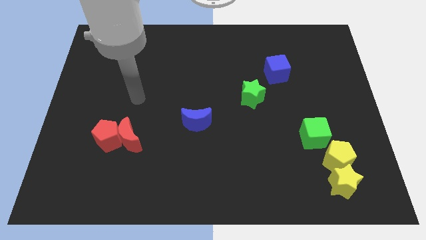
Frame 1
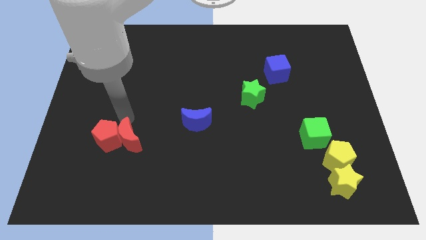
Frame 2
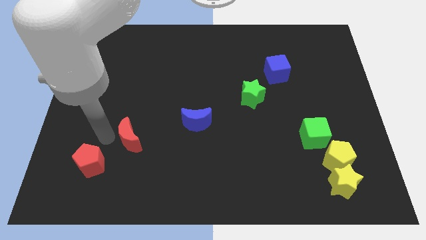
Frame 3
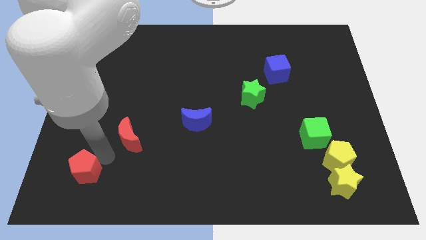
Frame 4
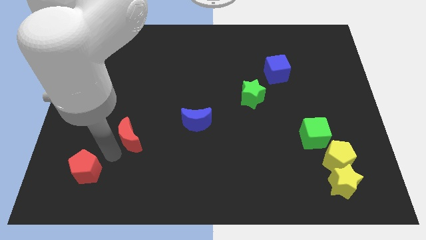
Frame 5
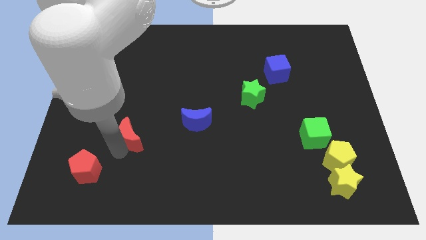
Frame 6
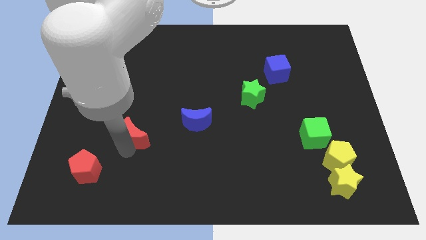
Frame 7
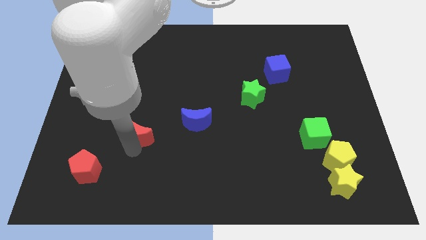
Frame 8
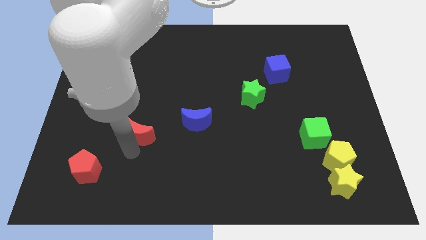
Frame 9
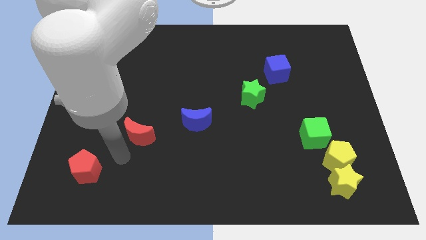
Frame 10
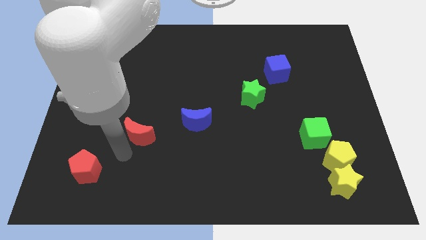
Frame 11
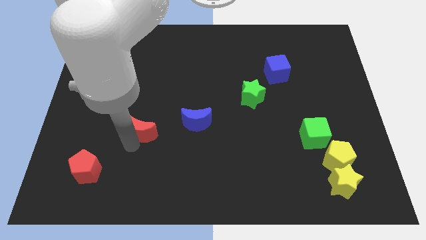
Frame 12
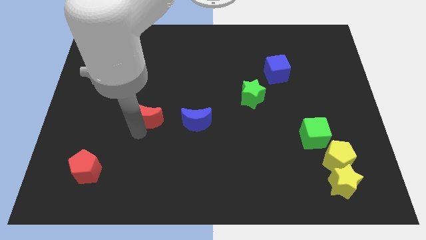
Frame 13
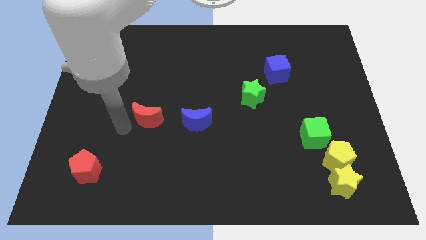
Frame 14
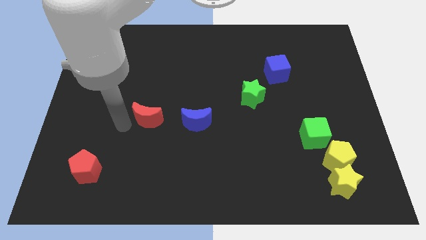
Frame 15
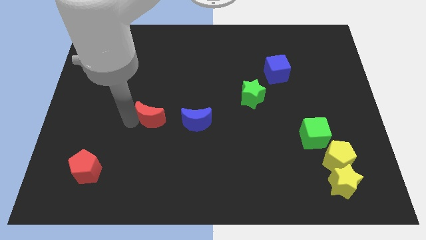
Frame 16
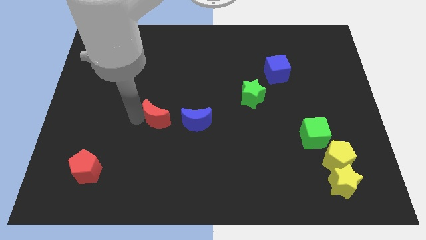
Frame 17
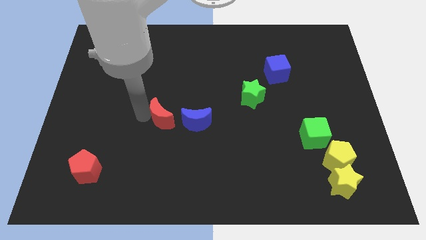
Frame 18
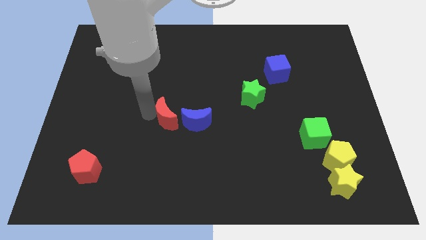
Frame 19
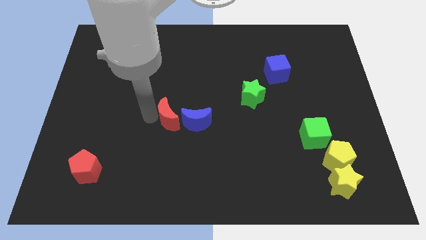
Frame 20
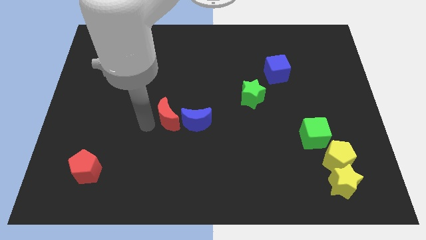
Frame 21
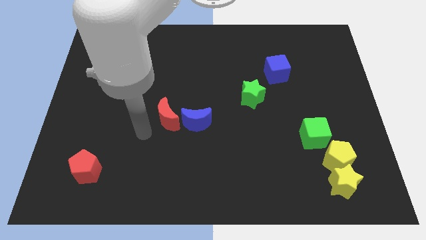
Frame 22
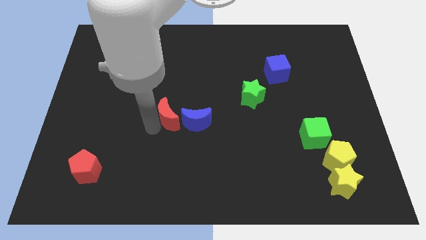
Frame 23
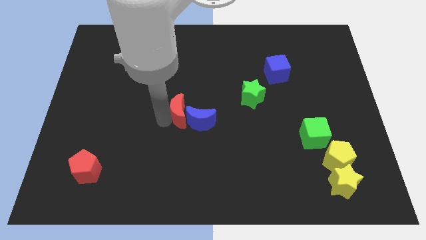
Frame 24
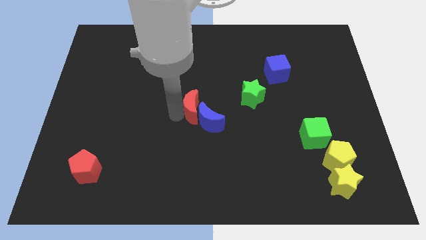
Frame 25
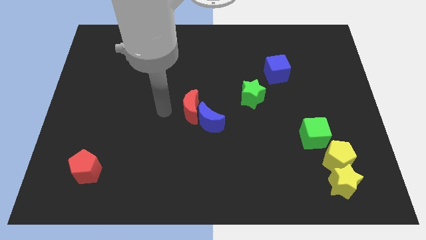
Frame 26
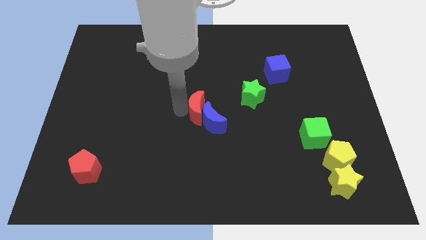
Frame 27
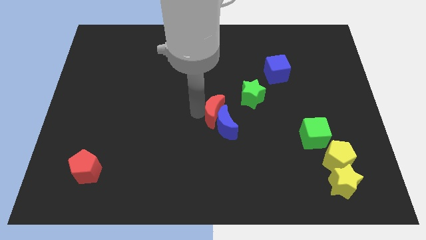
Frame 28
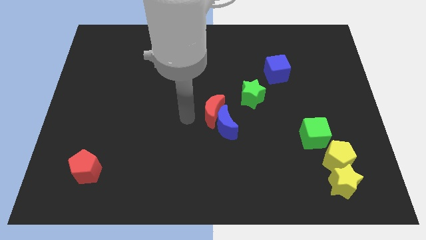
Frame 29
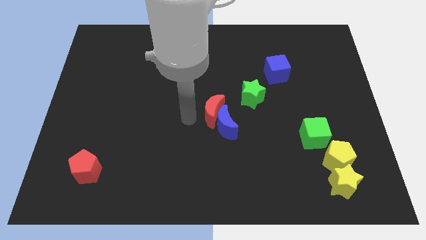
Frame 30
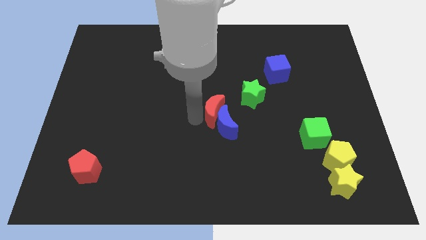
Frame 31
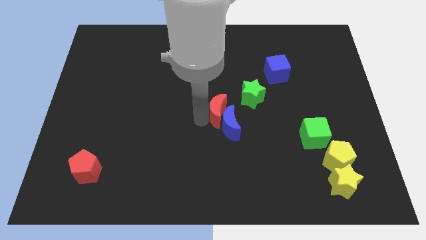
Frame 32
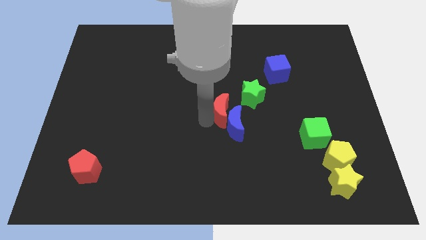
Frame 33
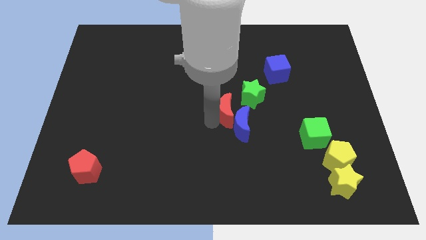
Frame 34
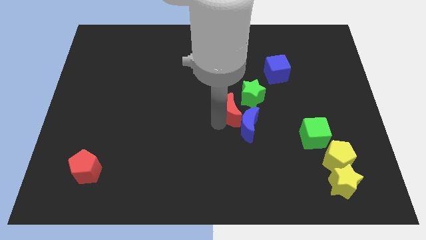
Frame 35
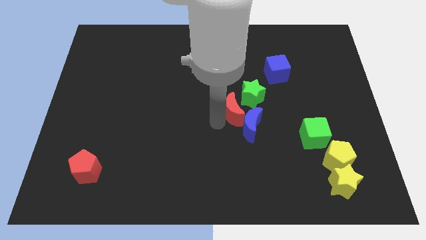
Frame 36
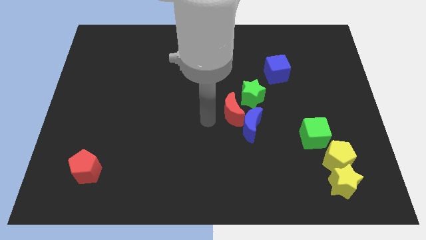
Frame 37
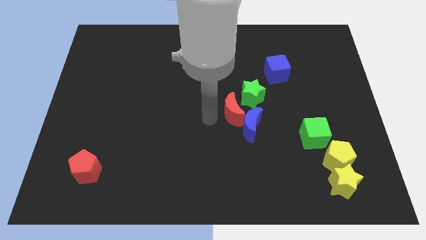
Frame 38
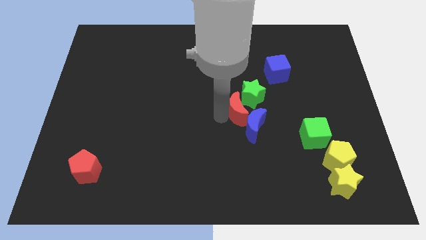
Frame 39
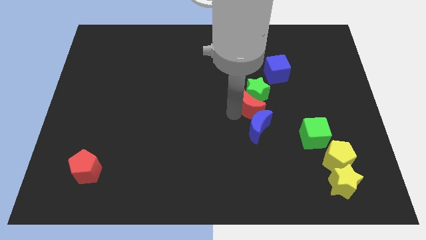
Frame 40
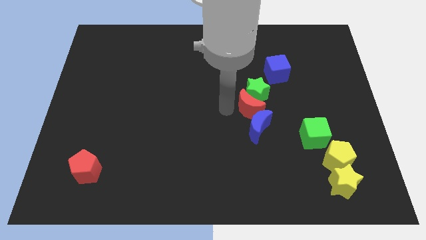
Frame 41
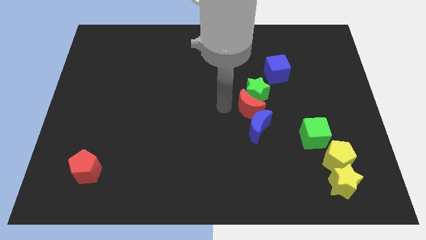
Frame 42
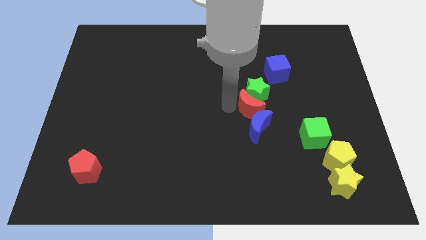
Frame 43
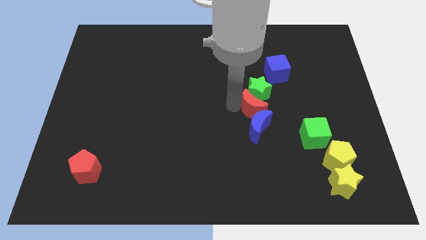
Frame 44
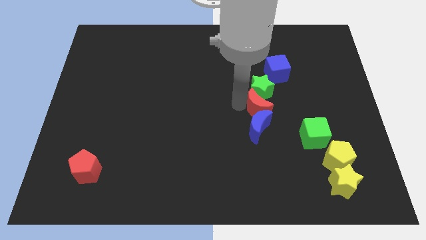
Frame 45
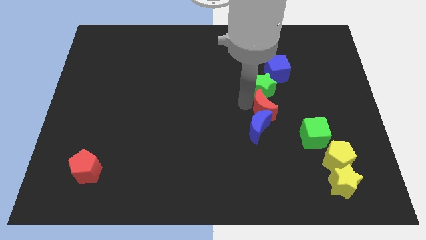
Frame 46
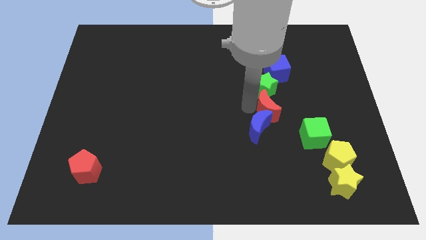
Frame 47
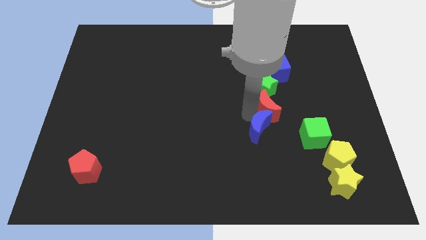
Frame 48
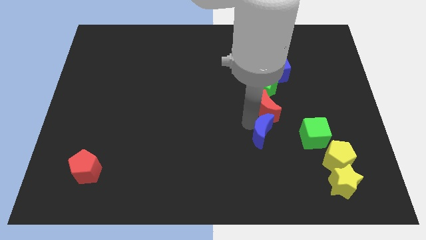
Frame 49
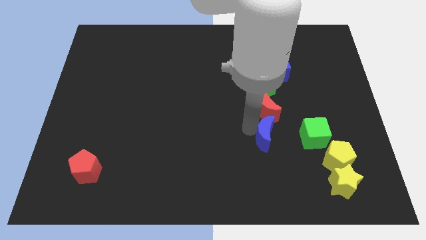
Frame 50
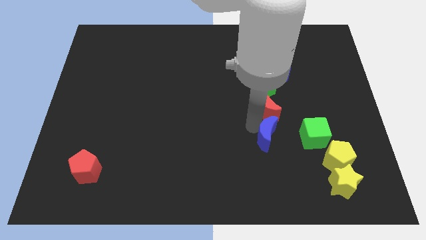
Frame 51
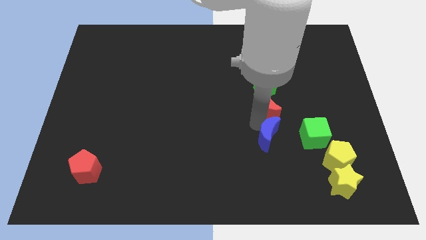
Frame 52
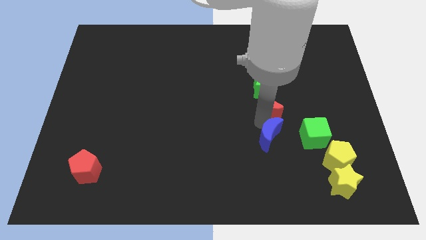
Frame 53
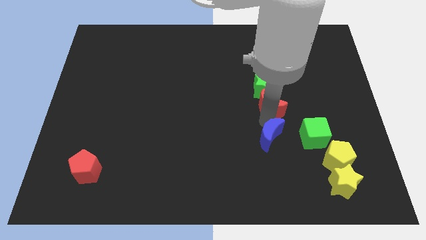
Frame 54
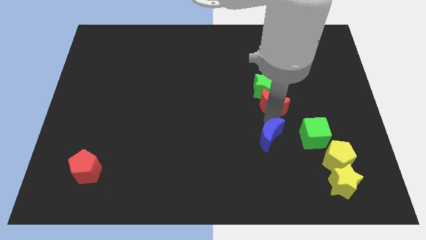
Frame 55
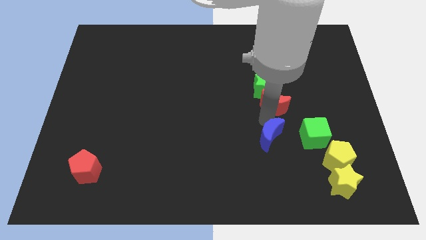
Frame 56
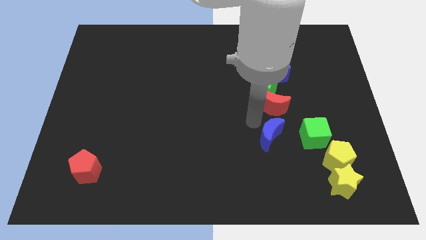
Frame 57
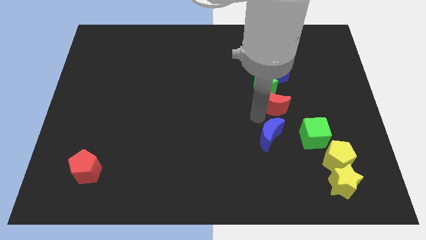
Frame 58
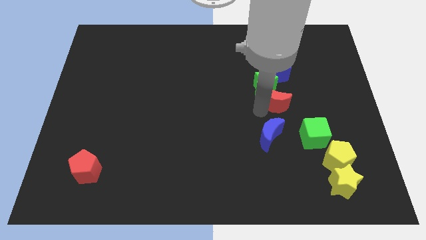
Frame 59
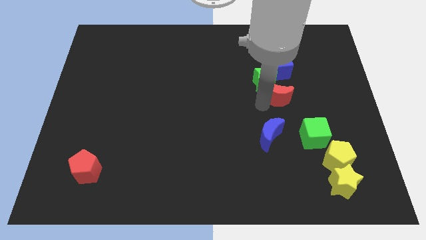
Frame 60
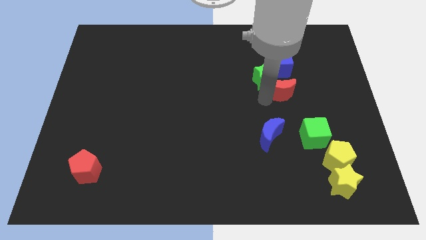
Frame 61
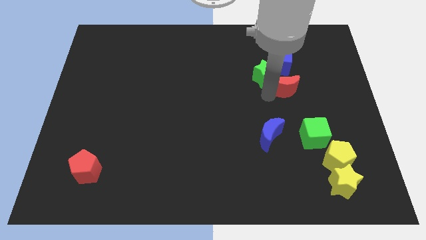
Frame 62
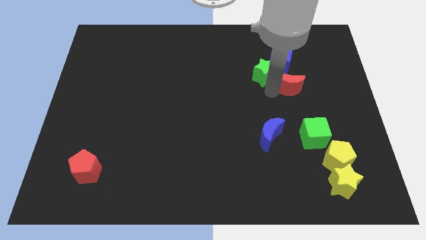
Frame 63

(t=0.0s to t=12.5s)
put the red moon diagonally down and to the right of the blue cube
